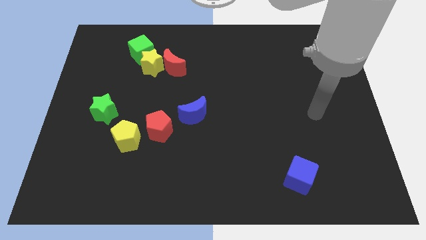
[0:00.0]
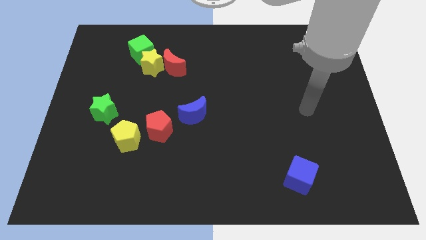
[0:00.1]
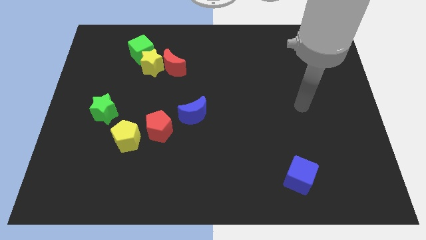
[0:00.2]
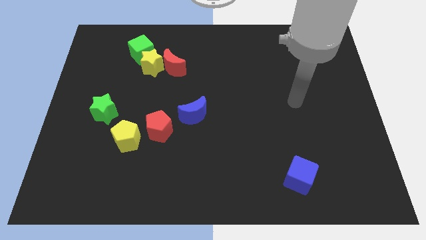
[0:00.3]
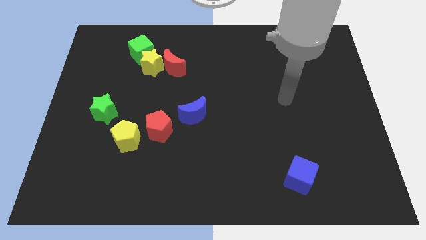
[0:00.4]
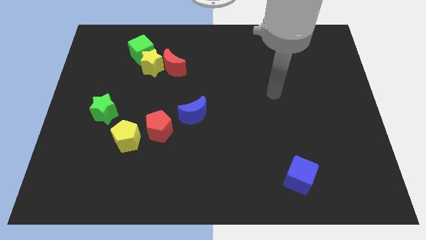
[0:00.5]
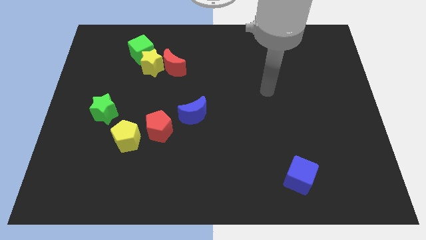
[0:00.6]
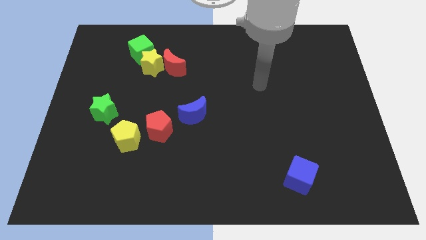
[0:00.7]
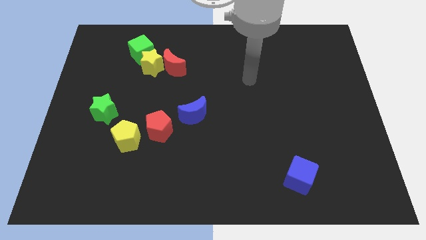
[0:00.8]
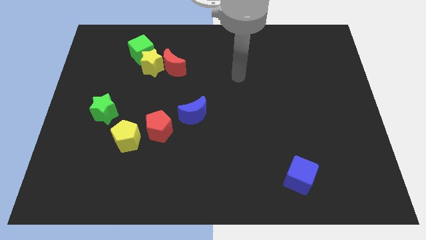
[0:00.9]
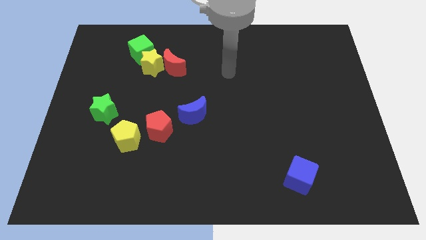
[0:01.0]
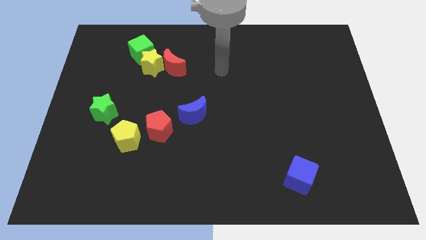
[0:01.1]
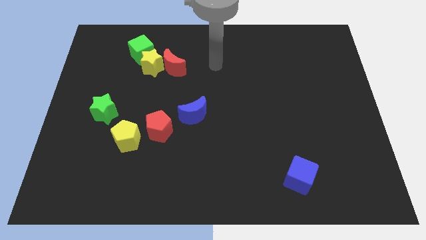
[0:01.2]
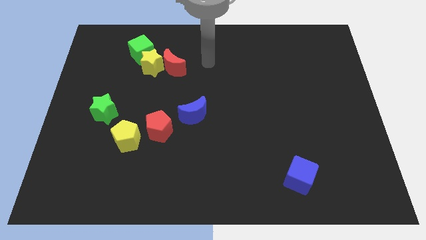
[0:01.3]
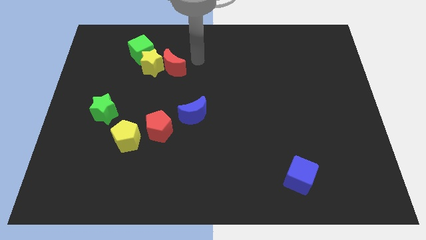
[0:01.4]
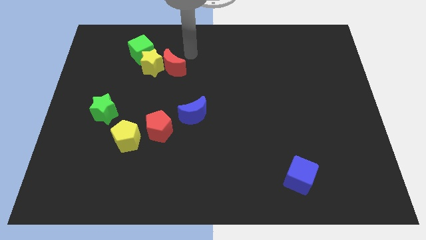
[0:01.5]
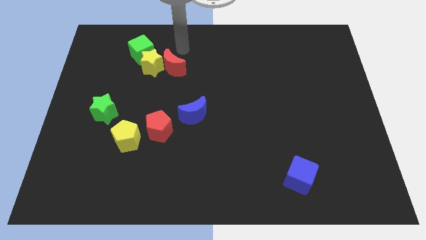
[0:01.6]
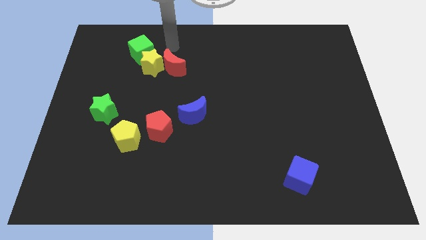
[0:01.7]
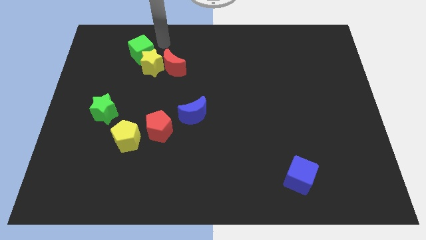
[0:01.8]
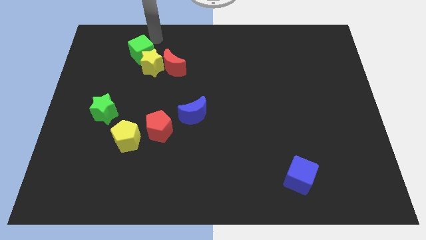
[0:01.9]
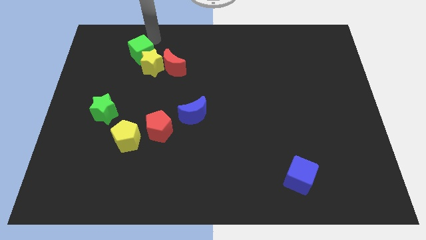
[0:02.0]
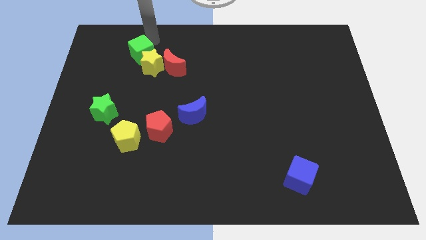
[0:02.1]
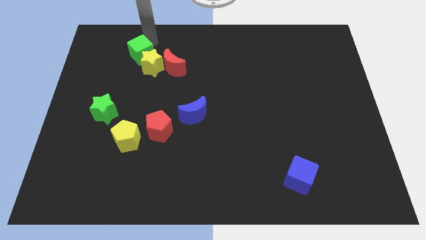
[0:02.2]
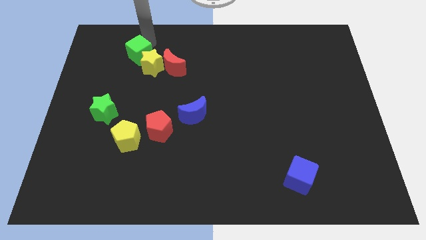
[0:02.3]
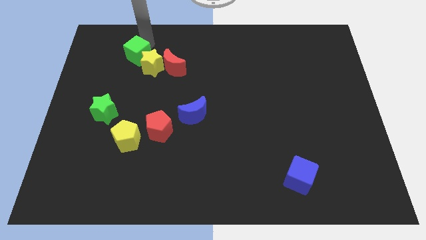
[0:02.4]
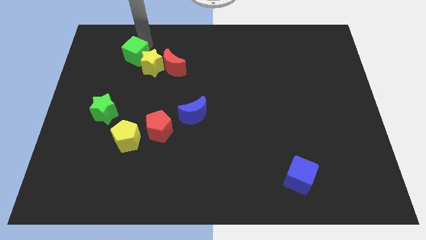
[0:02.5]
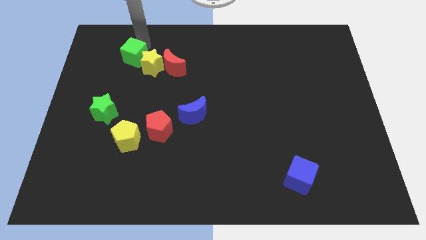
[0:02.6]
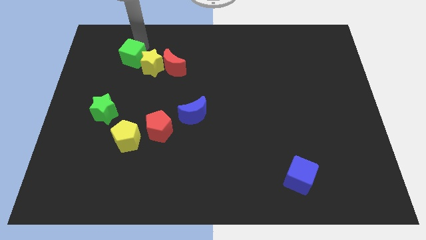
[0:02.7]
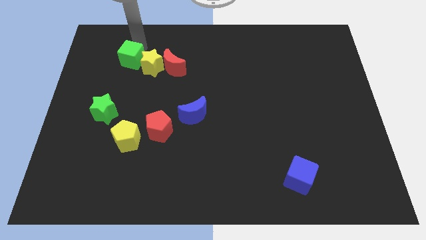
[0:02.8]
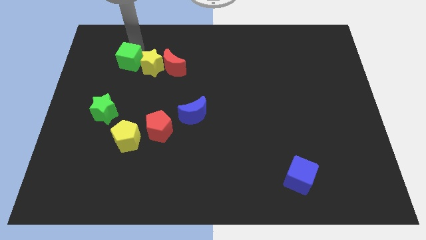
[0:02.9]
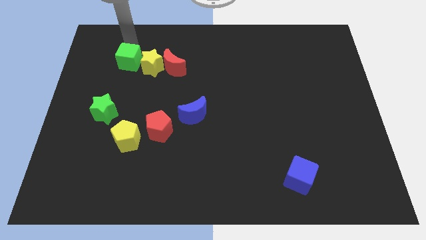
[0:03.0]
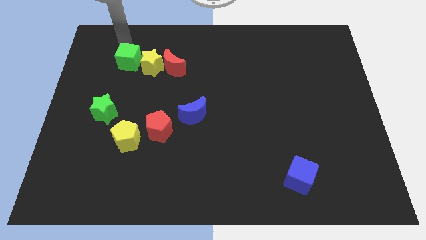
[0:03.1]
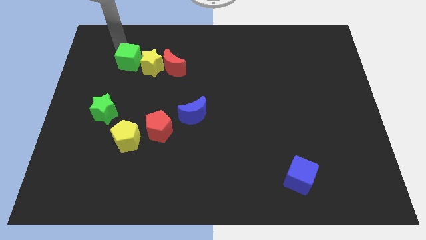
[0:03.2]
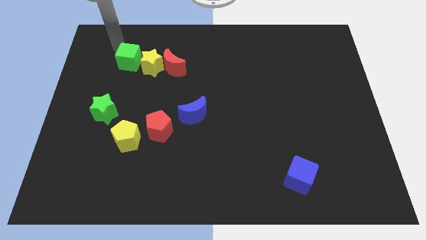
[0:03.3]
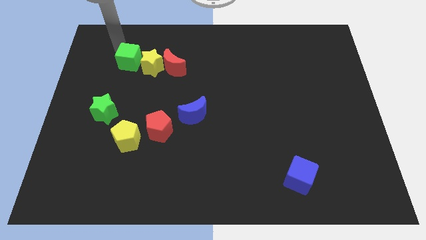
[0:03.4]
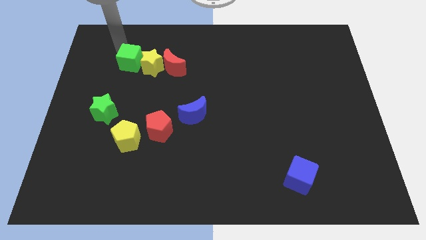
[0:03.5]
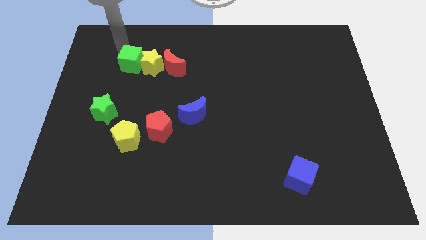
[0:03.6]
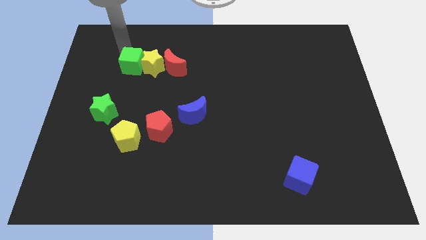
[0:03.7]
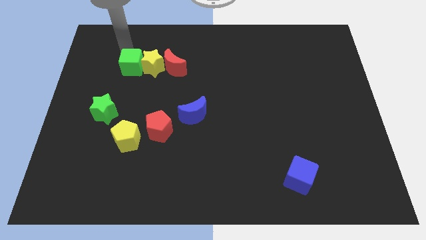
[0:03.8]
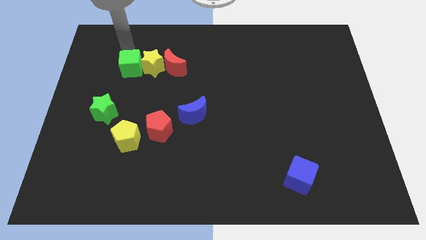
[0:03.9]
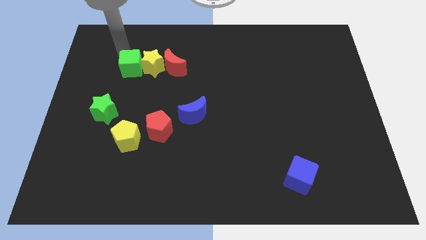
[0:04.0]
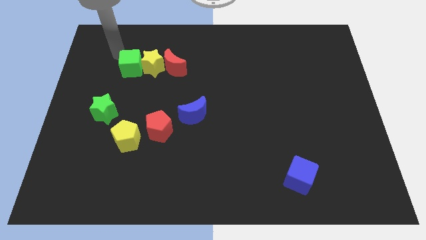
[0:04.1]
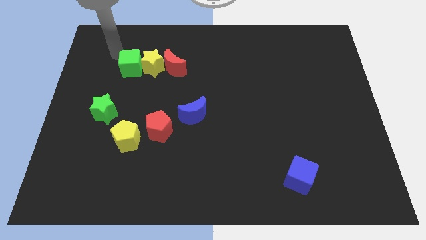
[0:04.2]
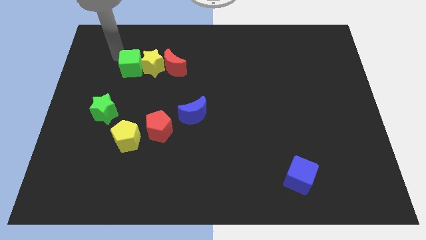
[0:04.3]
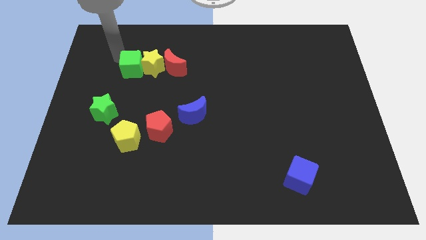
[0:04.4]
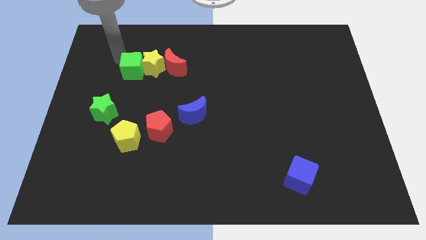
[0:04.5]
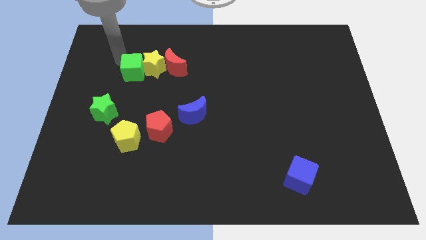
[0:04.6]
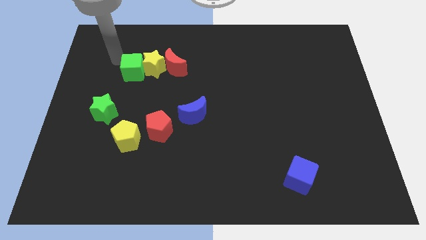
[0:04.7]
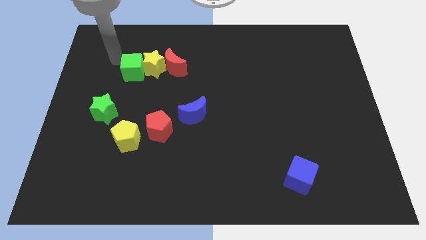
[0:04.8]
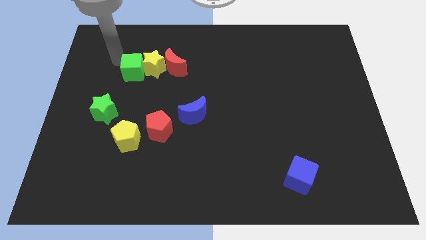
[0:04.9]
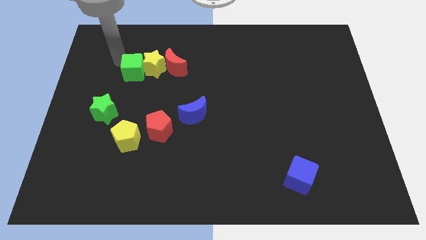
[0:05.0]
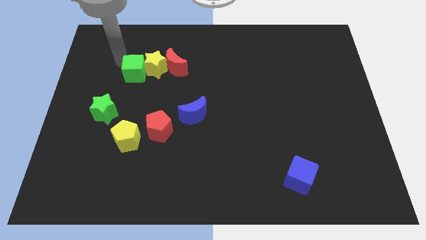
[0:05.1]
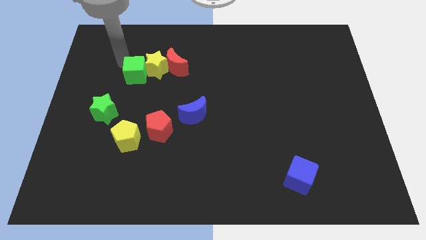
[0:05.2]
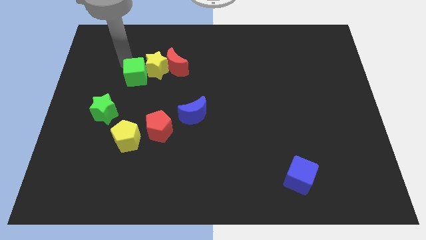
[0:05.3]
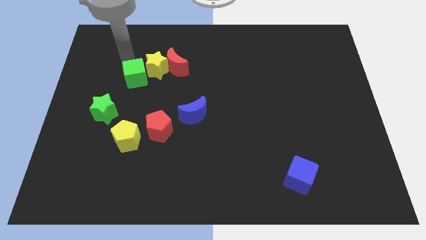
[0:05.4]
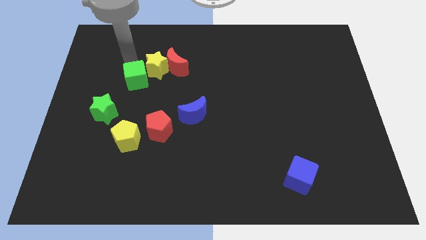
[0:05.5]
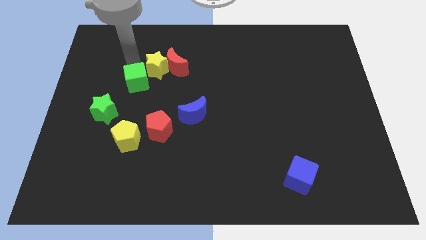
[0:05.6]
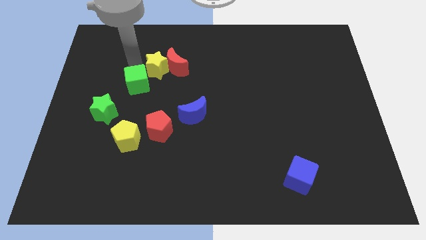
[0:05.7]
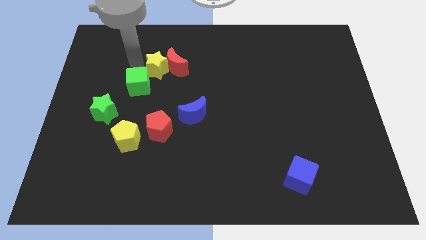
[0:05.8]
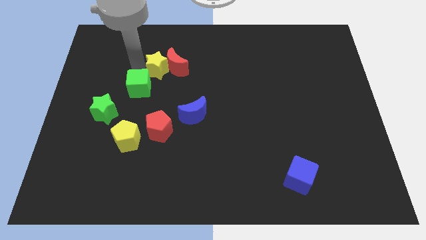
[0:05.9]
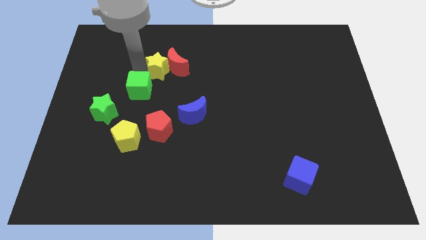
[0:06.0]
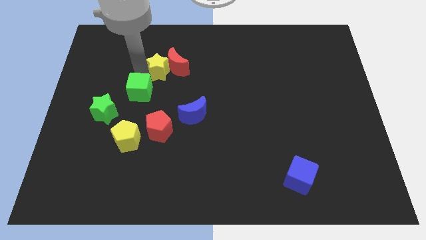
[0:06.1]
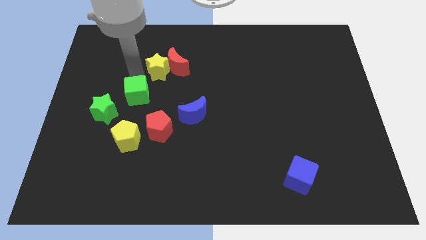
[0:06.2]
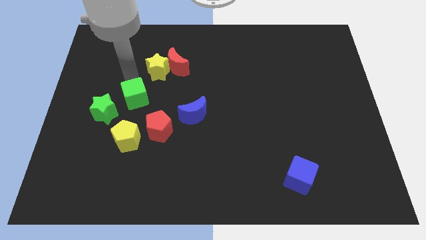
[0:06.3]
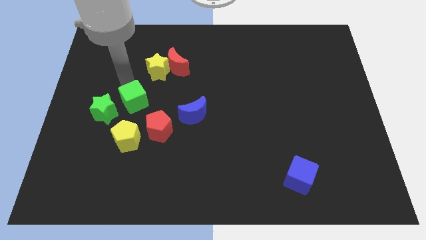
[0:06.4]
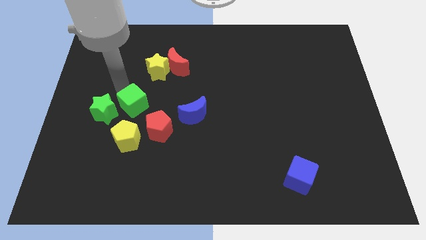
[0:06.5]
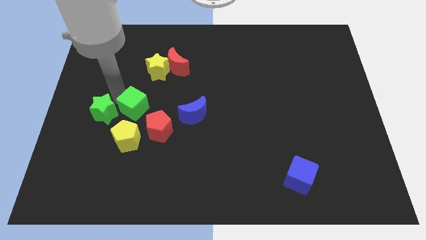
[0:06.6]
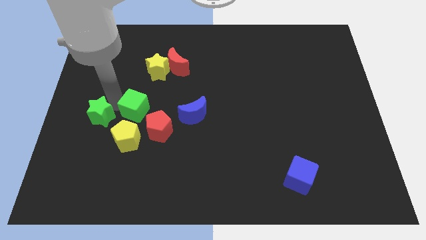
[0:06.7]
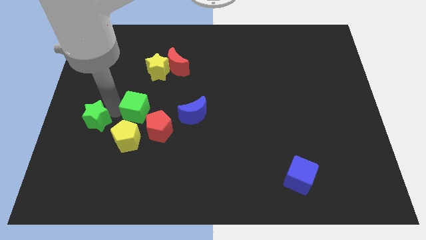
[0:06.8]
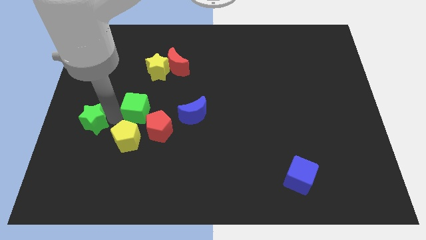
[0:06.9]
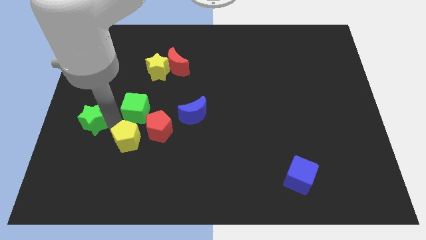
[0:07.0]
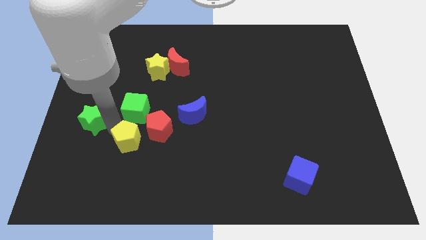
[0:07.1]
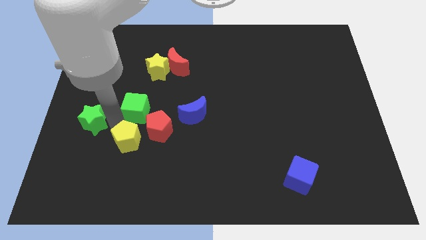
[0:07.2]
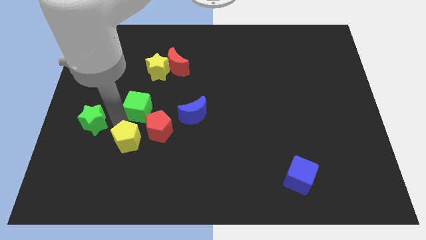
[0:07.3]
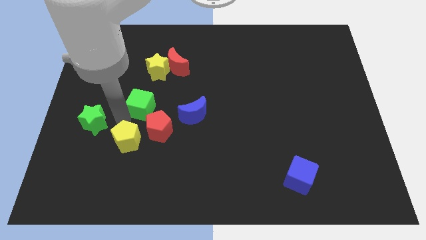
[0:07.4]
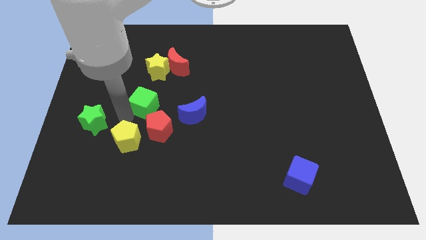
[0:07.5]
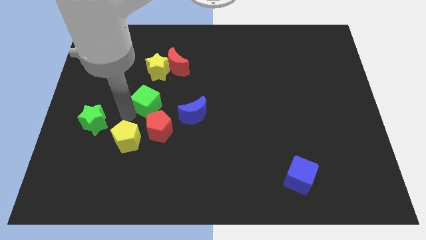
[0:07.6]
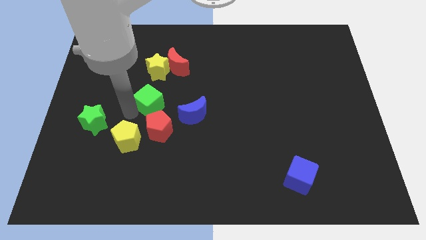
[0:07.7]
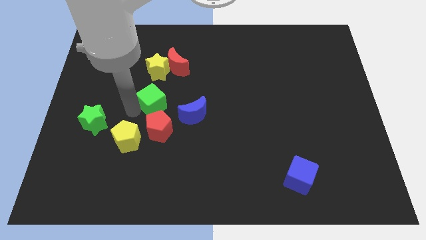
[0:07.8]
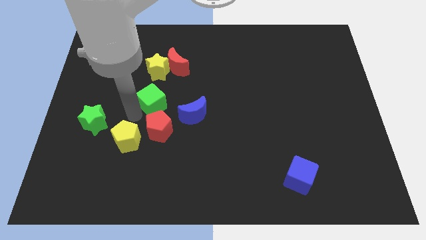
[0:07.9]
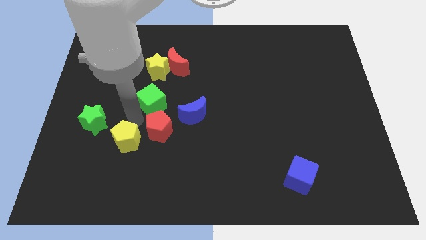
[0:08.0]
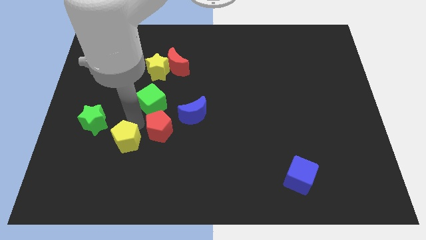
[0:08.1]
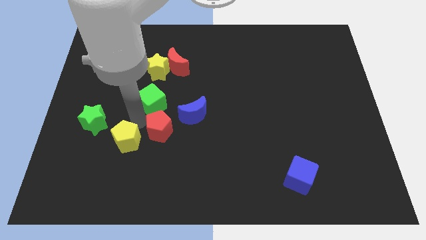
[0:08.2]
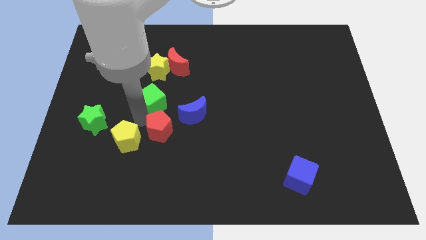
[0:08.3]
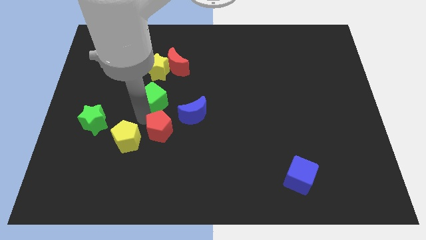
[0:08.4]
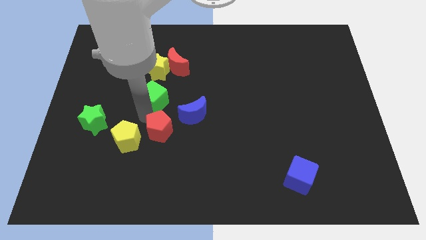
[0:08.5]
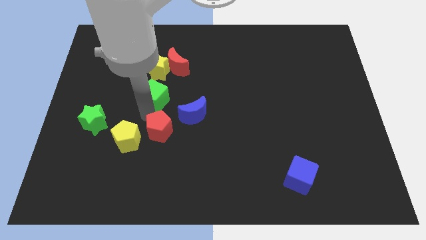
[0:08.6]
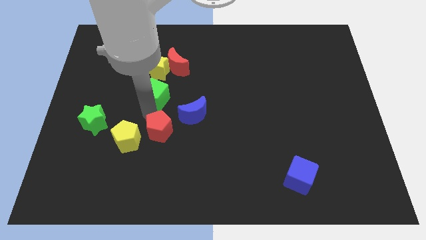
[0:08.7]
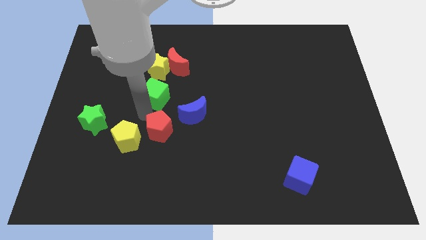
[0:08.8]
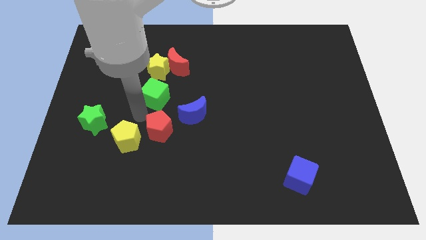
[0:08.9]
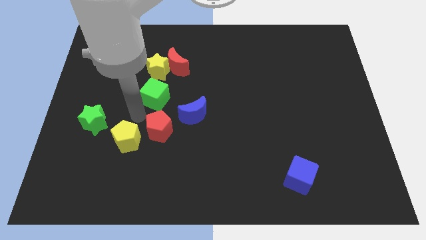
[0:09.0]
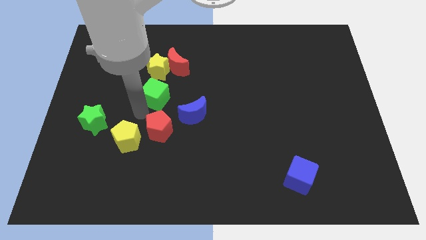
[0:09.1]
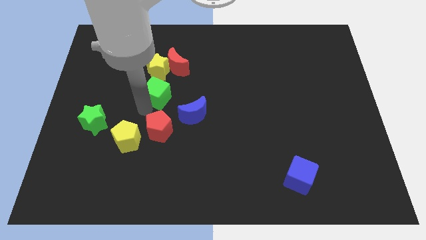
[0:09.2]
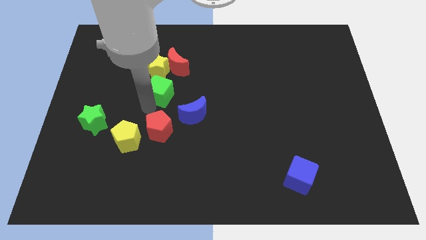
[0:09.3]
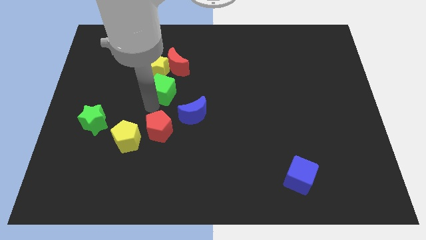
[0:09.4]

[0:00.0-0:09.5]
move the green cube to the center
